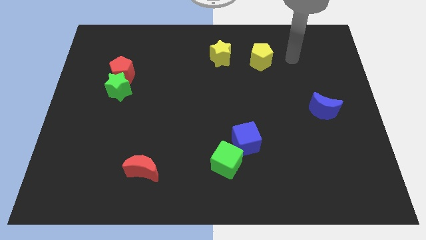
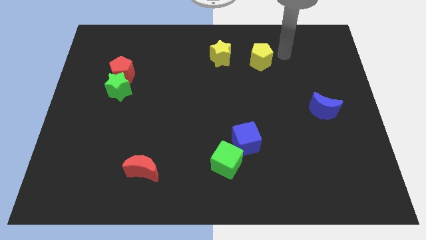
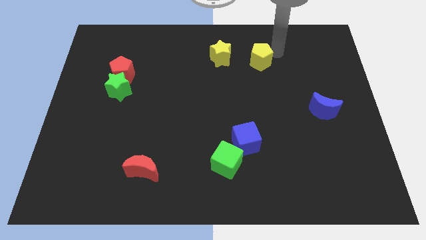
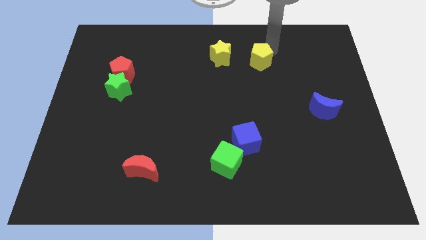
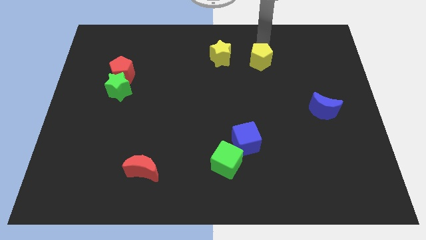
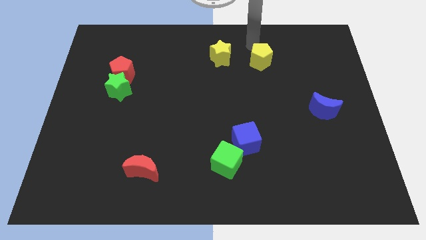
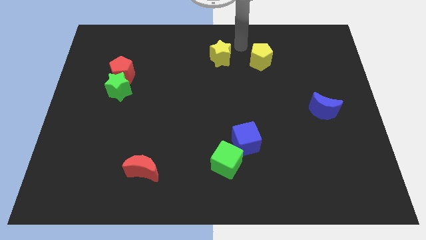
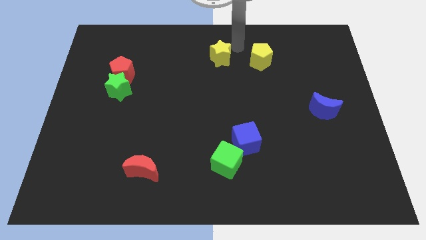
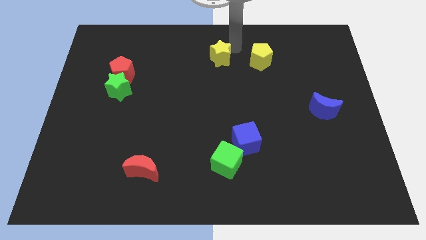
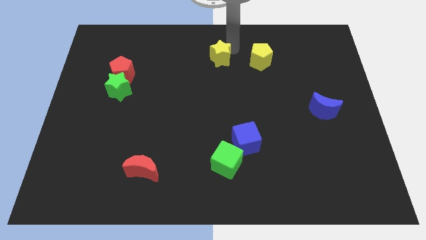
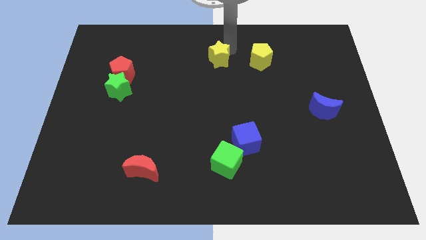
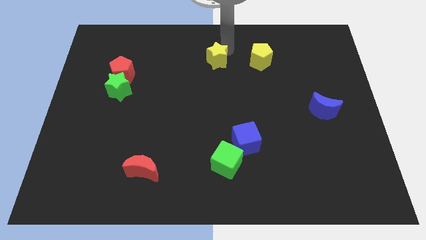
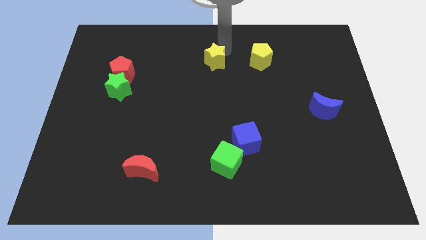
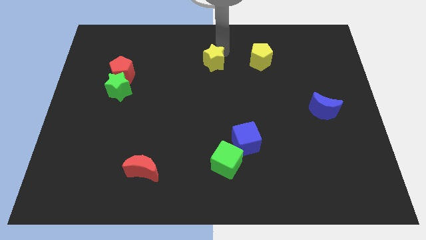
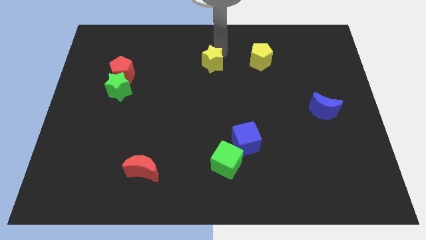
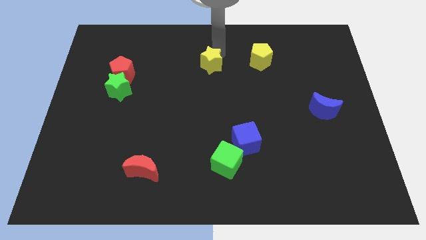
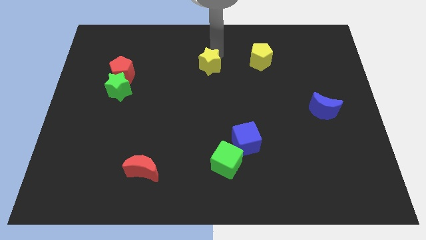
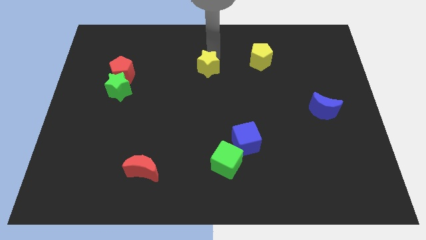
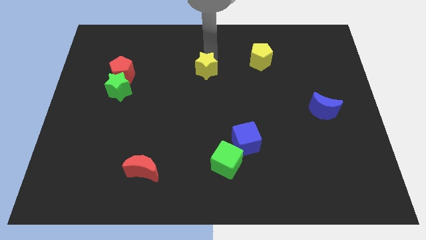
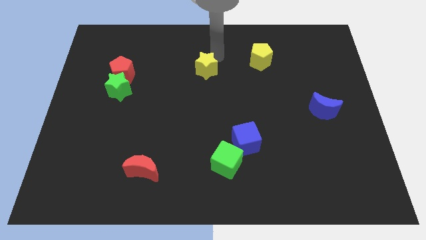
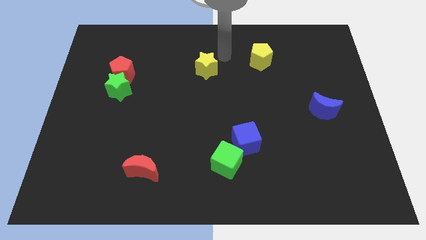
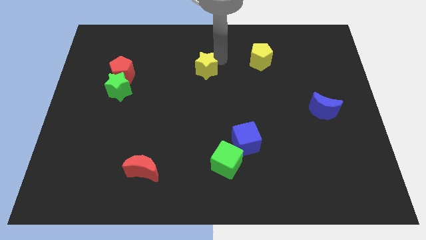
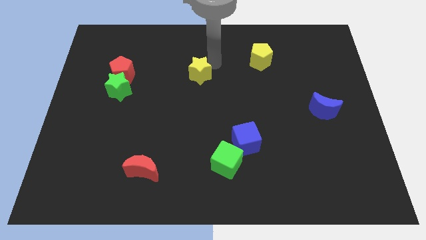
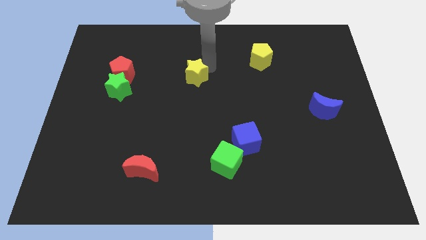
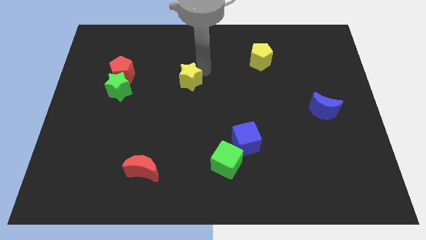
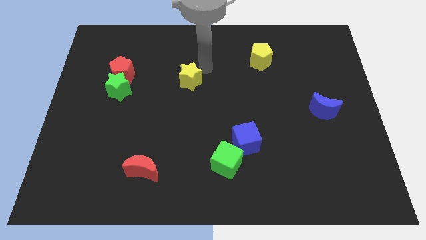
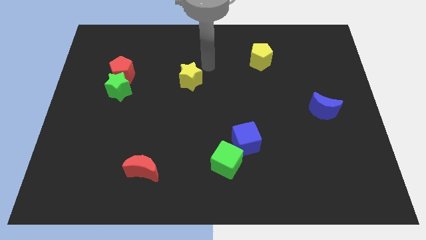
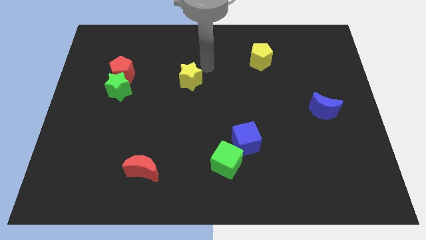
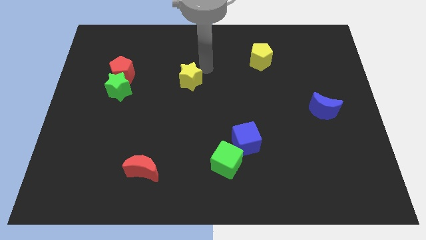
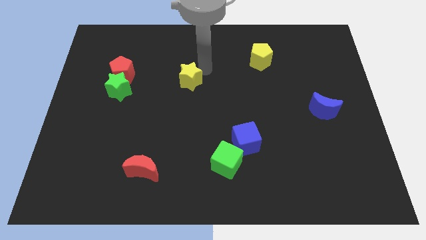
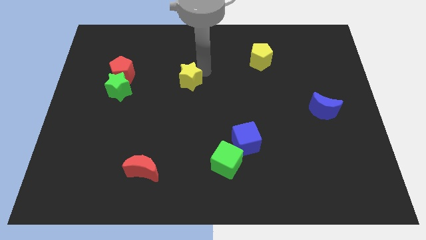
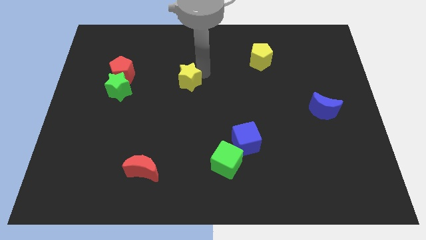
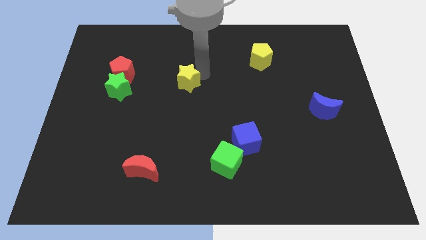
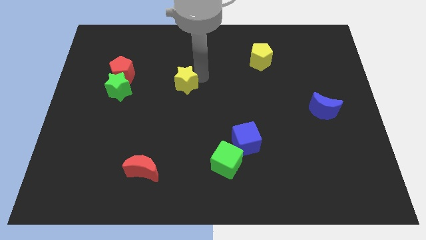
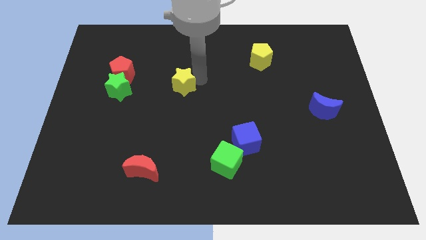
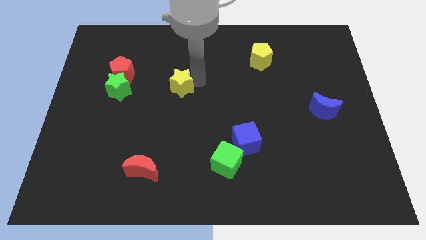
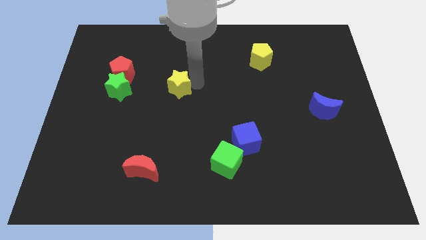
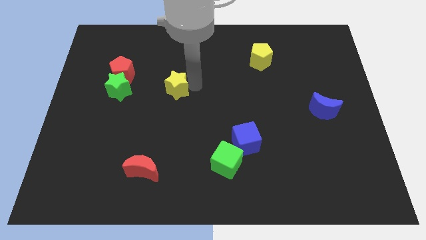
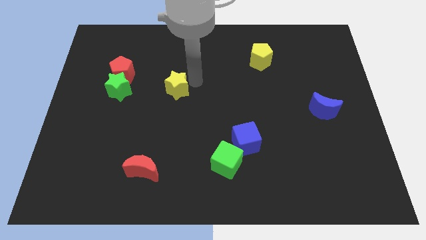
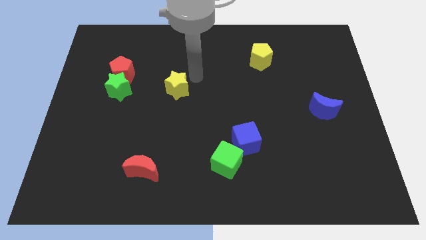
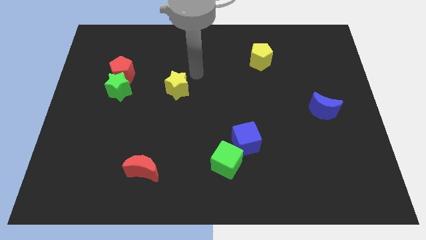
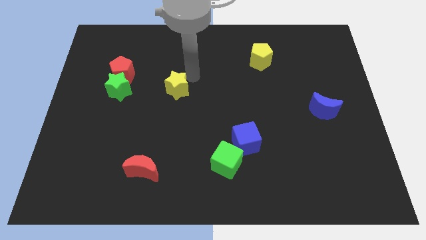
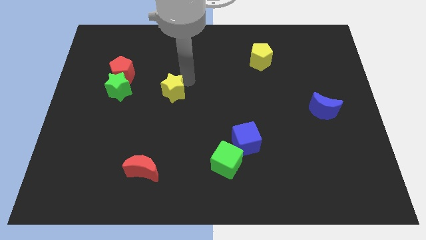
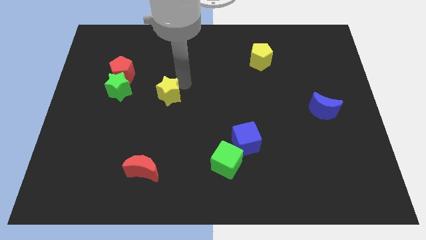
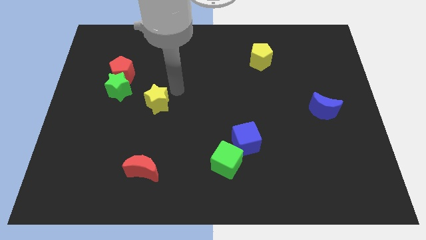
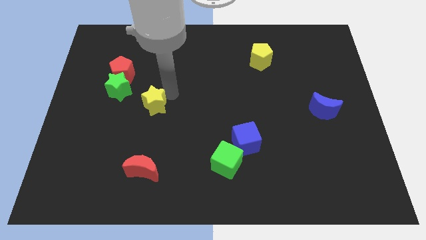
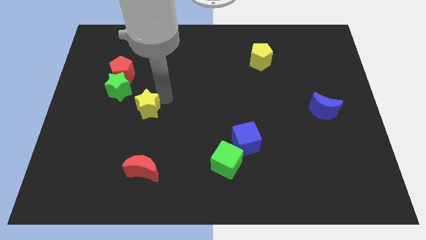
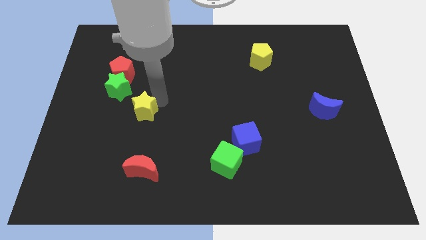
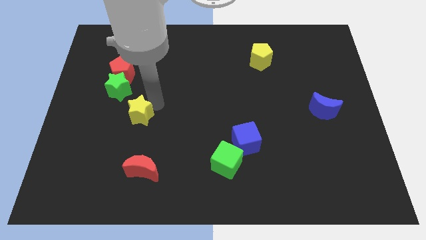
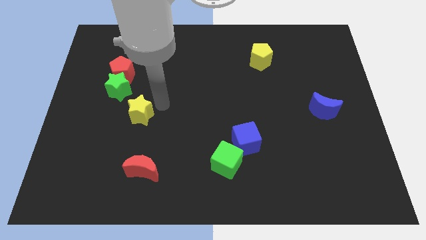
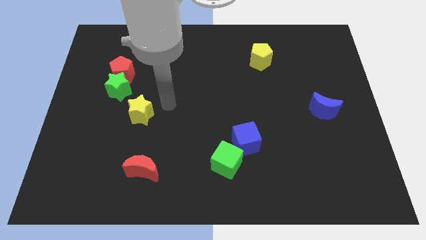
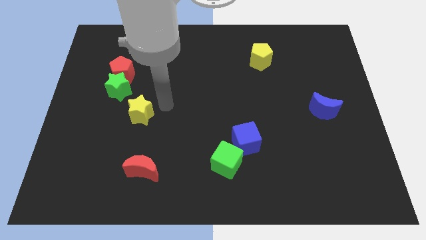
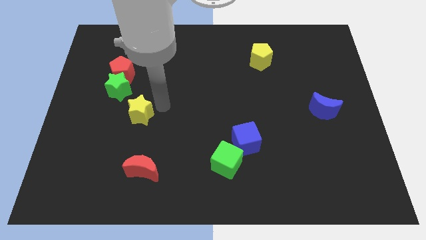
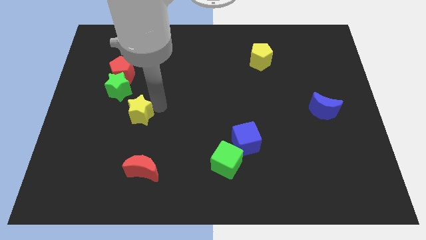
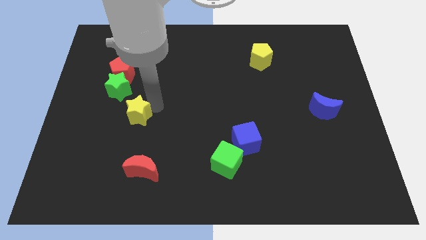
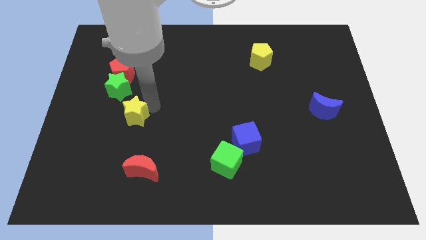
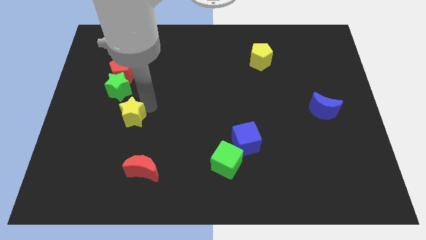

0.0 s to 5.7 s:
move the yellow star to the bottom side of the green star

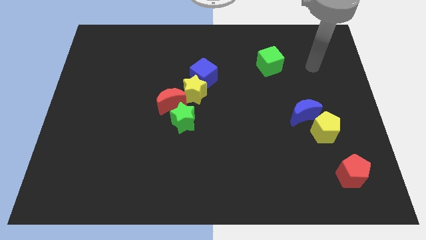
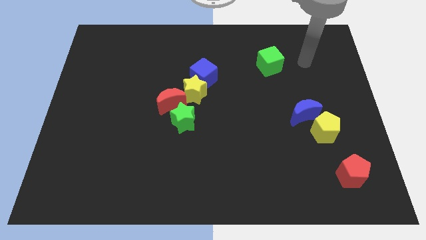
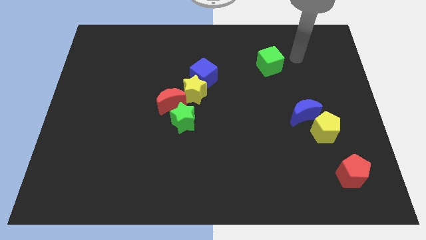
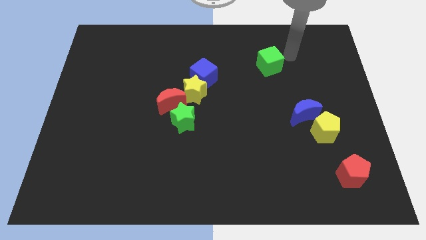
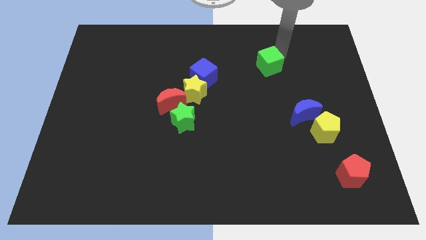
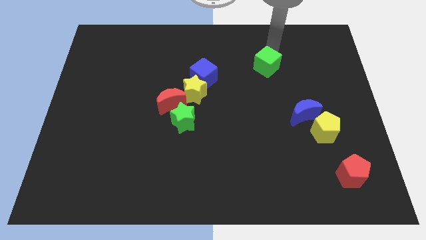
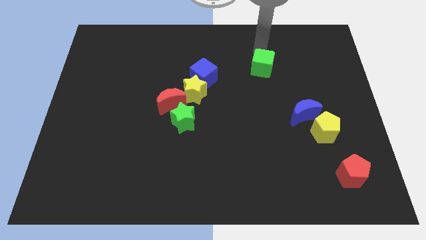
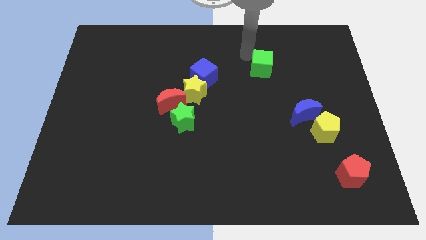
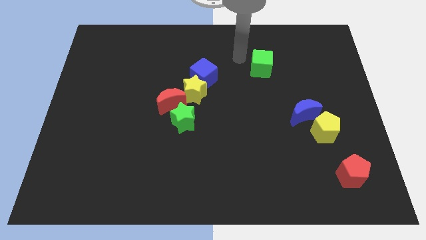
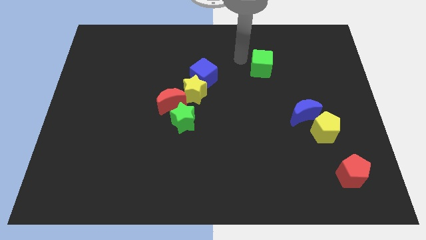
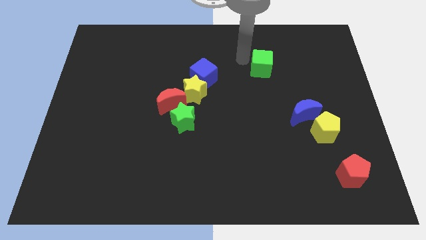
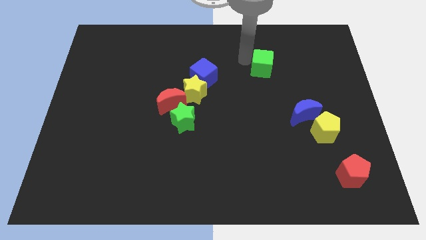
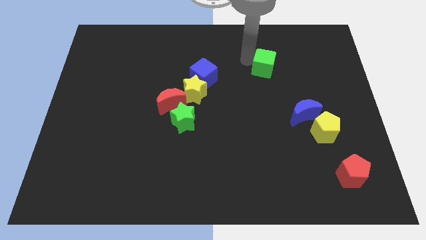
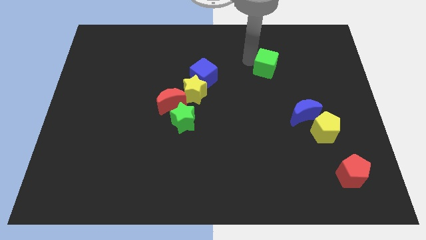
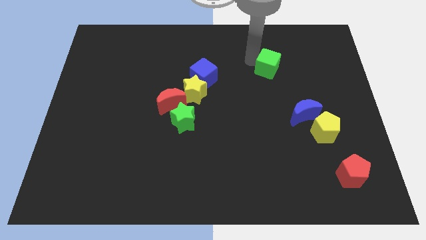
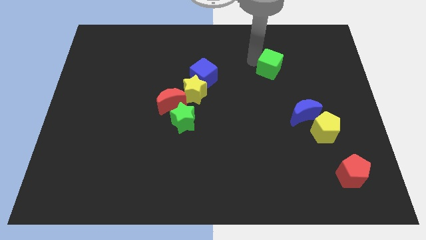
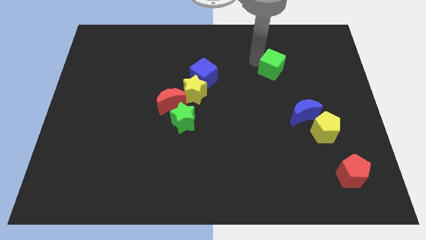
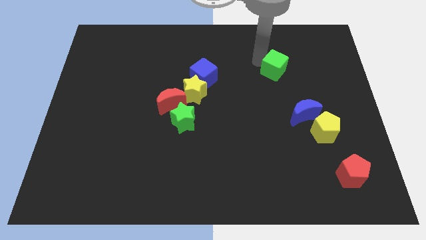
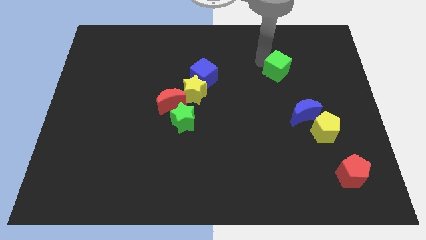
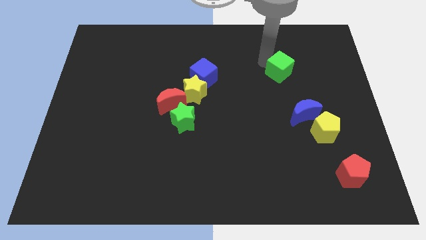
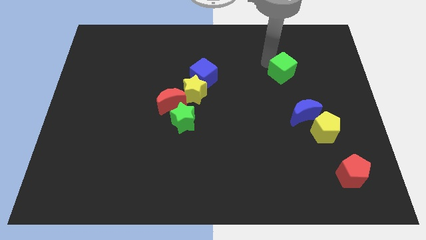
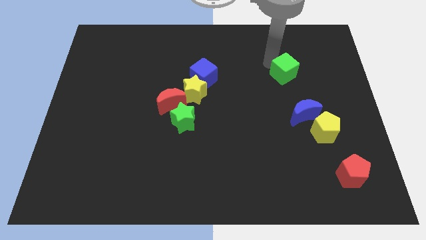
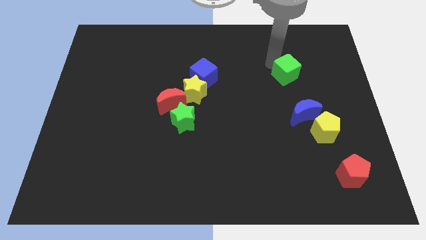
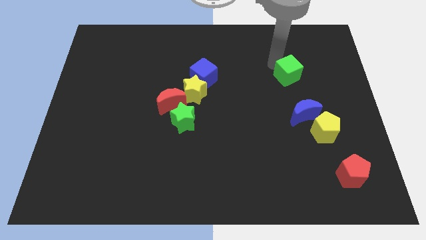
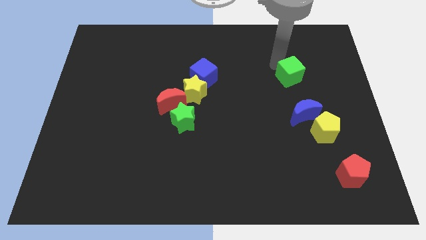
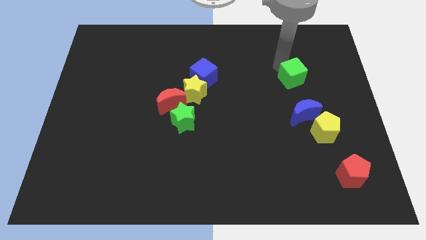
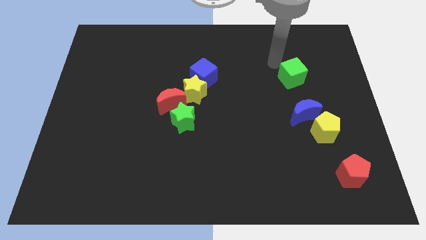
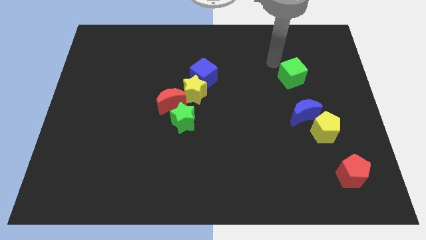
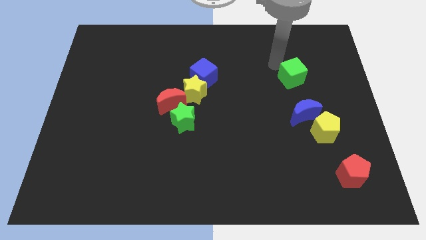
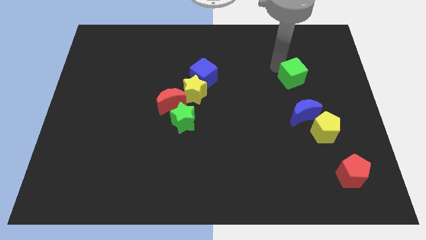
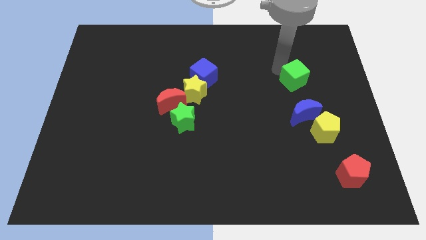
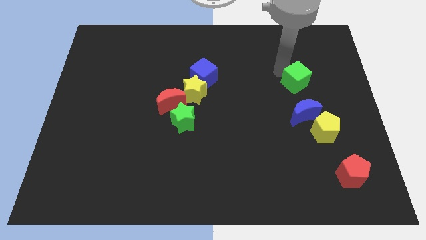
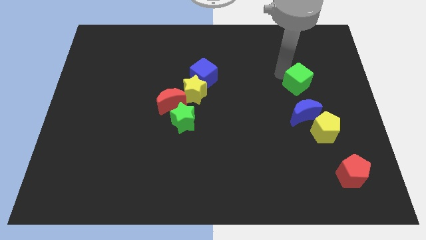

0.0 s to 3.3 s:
move the green cube above the yellow pentagon
